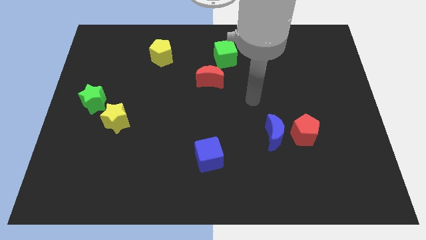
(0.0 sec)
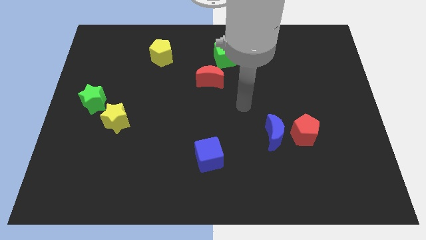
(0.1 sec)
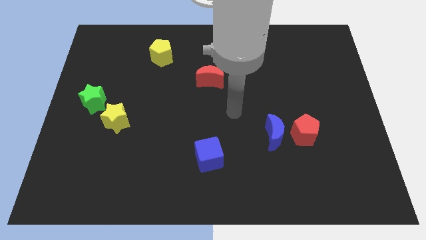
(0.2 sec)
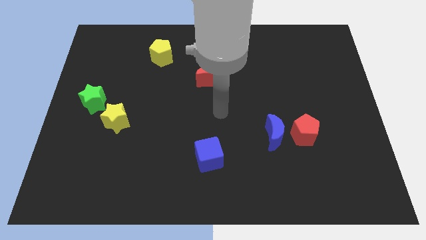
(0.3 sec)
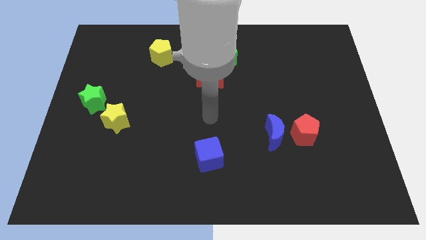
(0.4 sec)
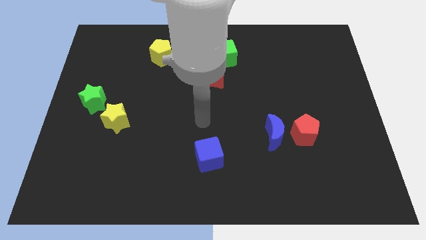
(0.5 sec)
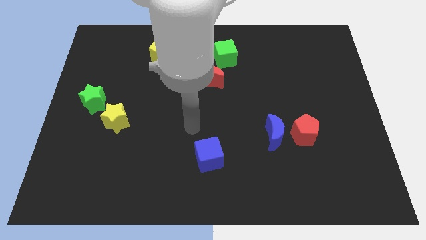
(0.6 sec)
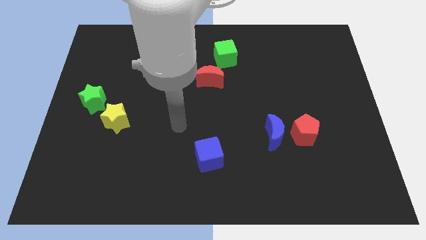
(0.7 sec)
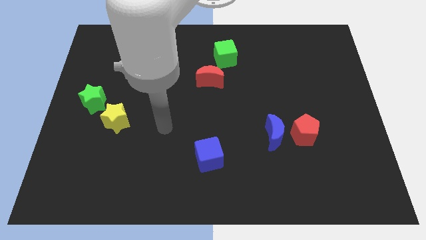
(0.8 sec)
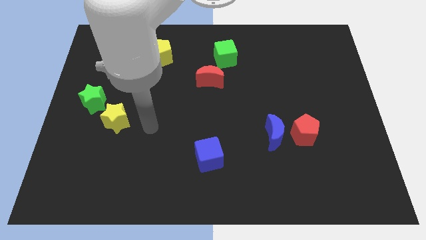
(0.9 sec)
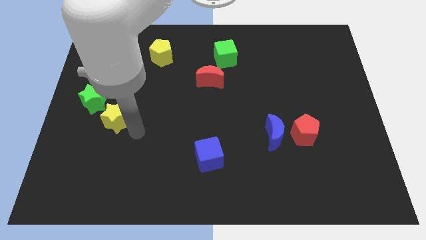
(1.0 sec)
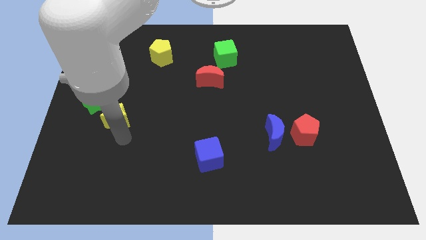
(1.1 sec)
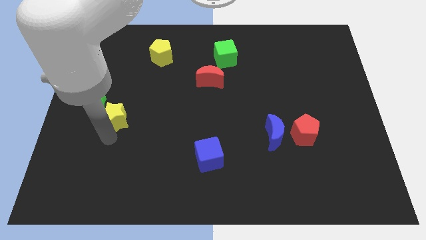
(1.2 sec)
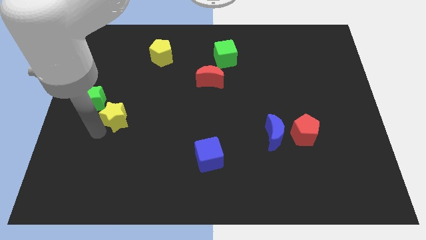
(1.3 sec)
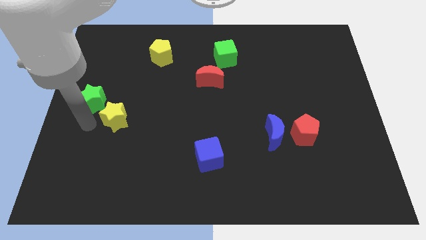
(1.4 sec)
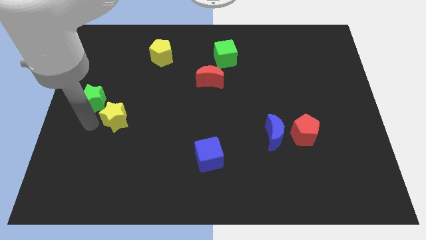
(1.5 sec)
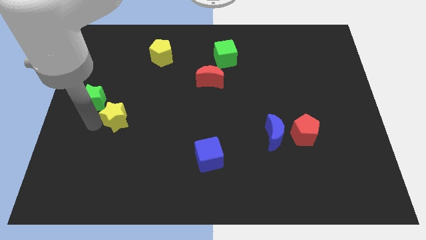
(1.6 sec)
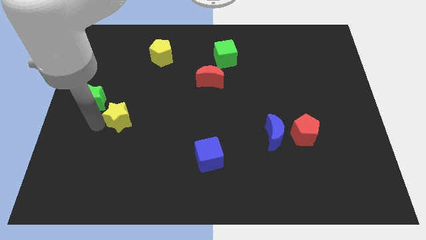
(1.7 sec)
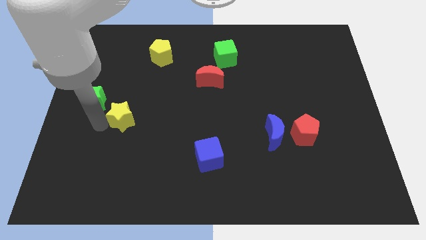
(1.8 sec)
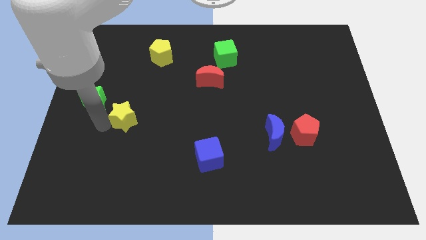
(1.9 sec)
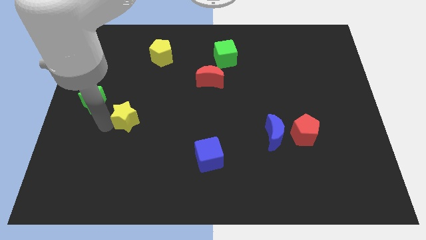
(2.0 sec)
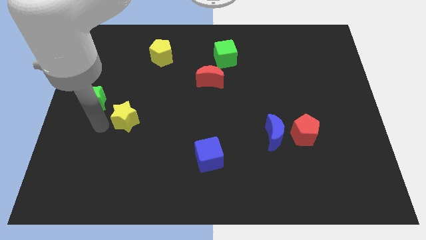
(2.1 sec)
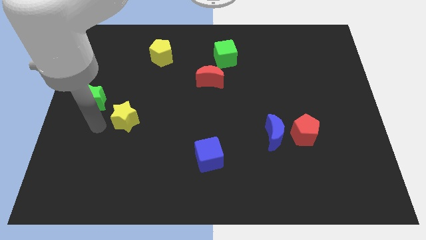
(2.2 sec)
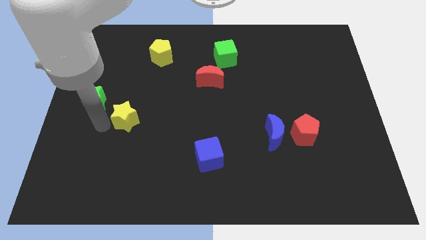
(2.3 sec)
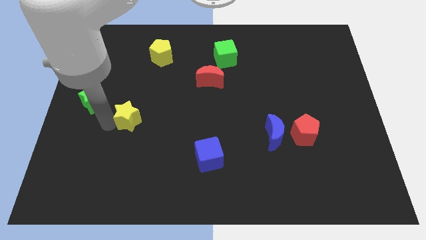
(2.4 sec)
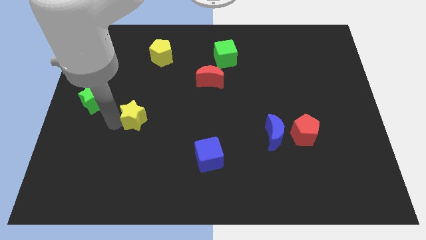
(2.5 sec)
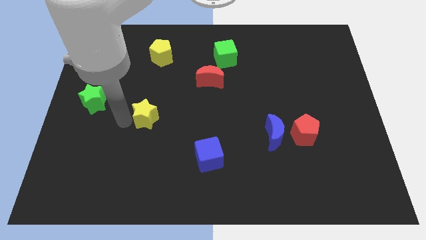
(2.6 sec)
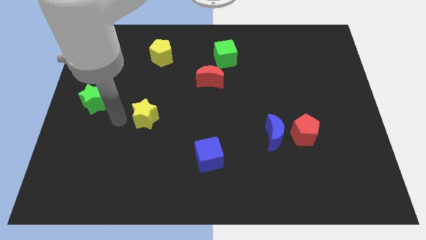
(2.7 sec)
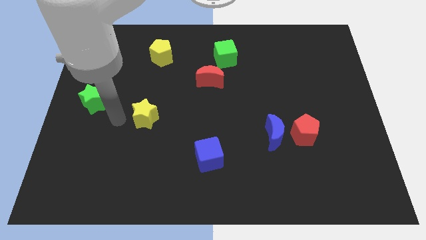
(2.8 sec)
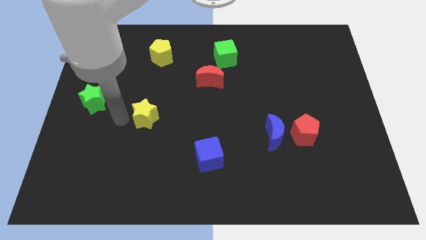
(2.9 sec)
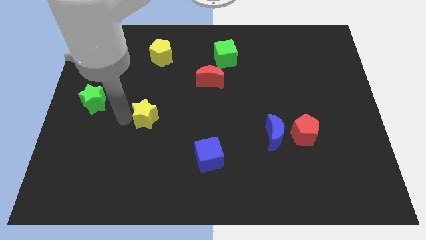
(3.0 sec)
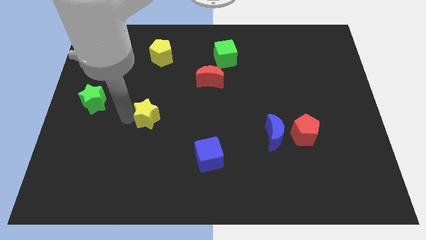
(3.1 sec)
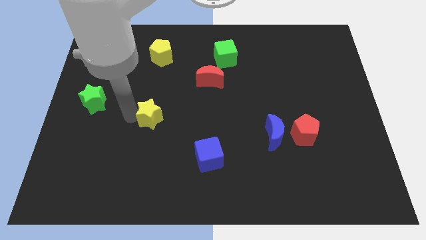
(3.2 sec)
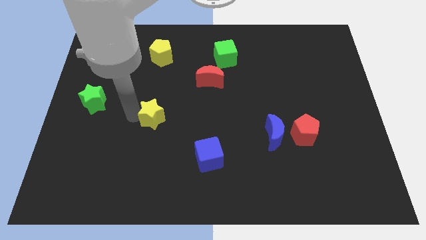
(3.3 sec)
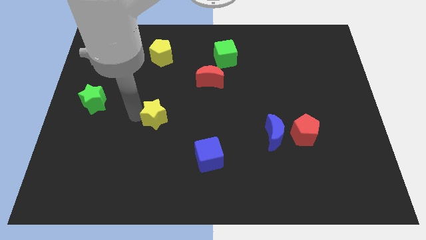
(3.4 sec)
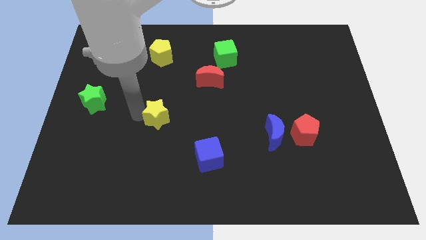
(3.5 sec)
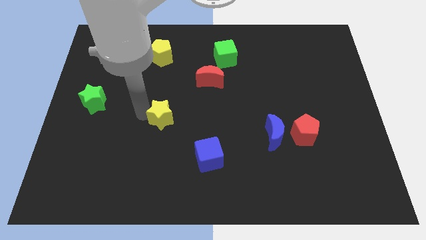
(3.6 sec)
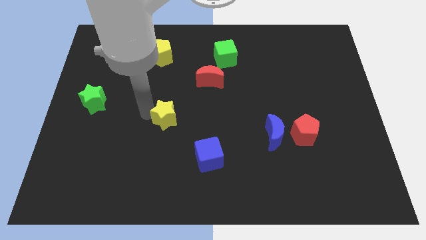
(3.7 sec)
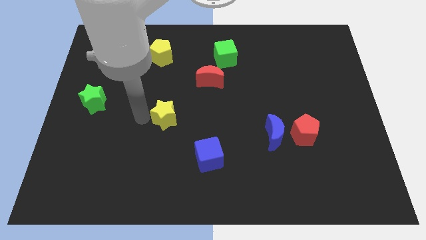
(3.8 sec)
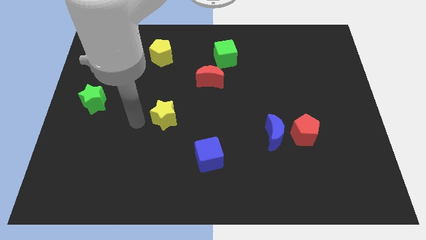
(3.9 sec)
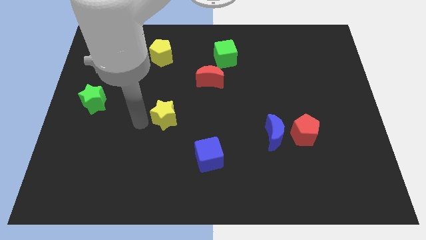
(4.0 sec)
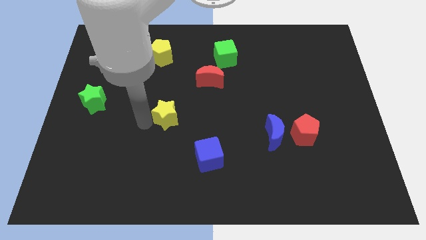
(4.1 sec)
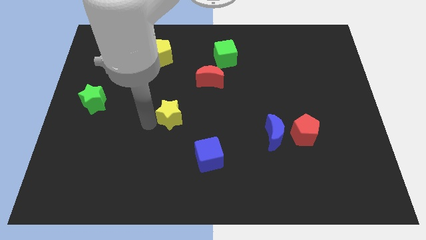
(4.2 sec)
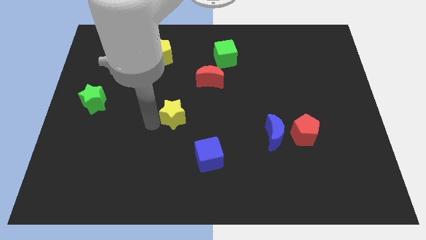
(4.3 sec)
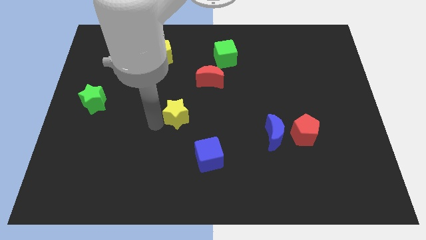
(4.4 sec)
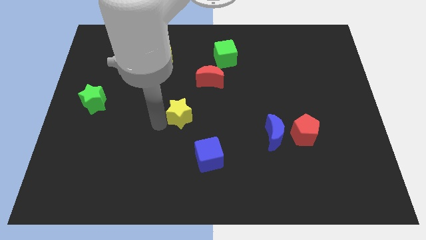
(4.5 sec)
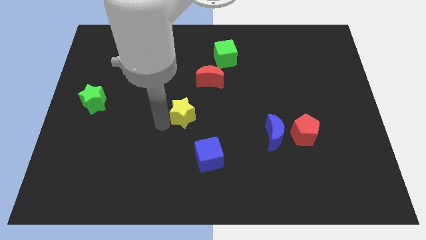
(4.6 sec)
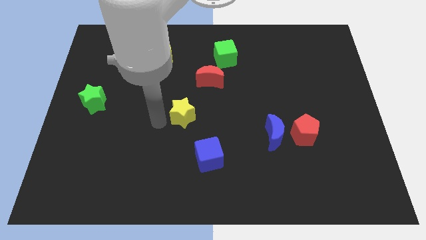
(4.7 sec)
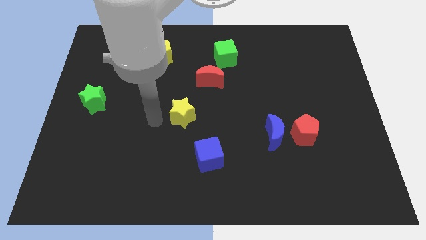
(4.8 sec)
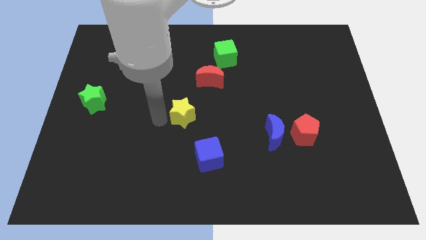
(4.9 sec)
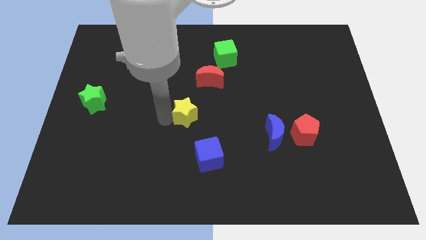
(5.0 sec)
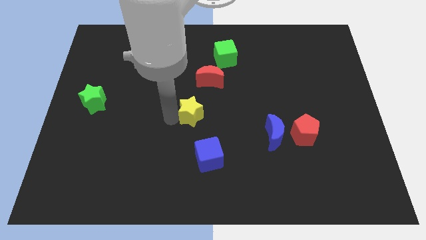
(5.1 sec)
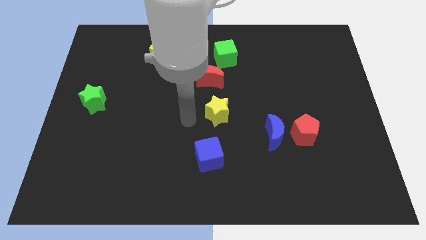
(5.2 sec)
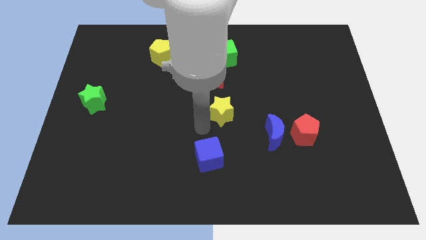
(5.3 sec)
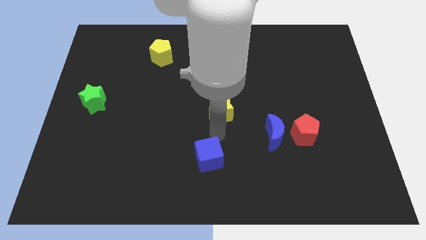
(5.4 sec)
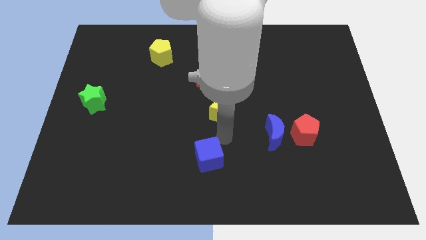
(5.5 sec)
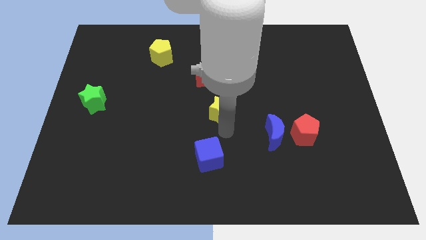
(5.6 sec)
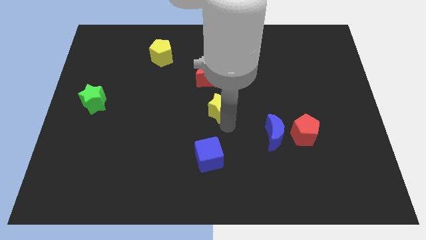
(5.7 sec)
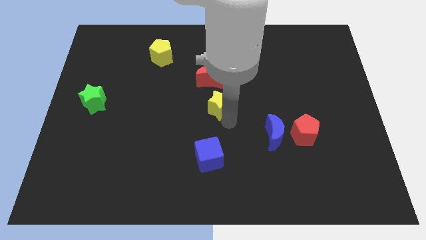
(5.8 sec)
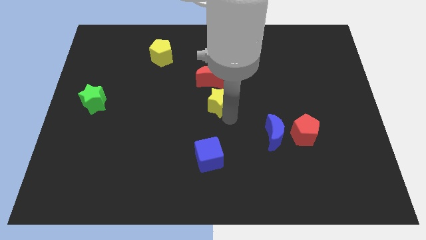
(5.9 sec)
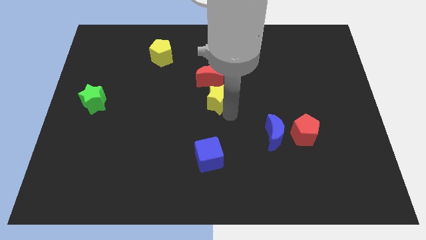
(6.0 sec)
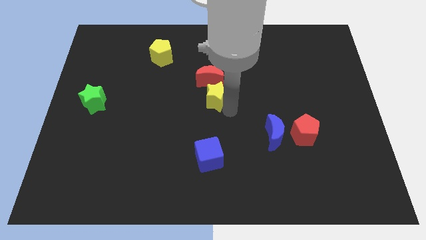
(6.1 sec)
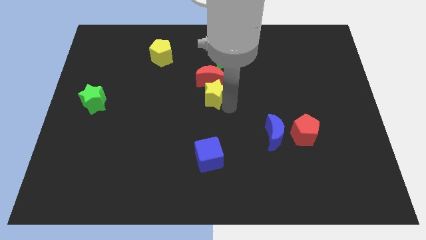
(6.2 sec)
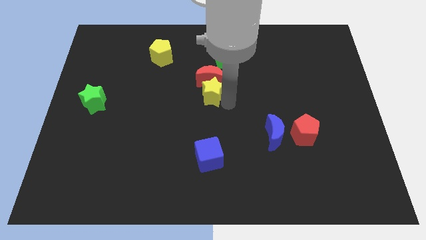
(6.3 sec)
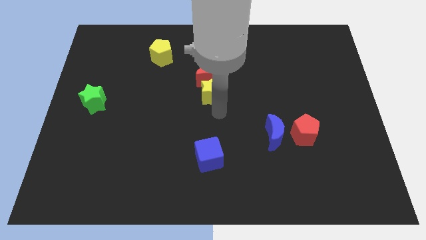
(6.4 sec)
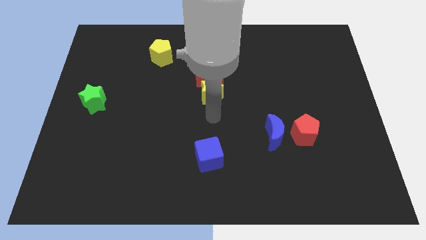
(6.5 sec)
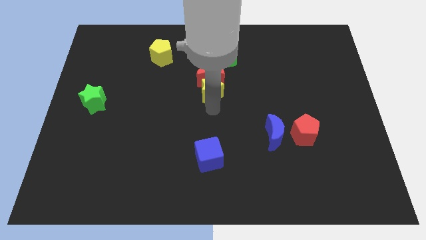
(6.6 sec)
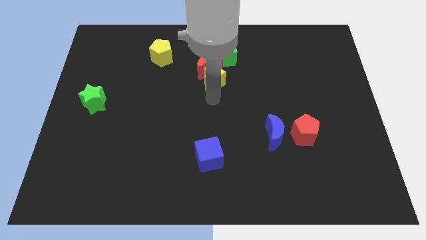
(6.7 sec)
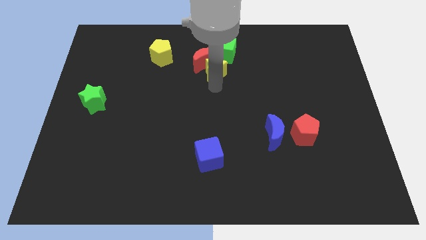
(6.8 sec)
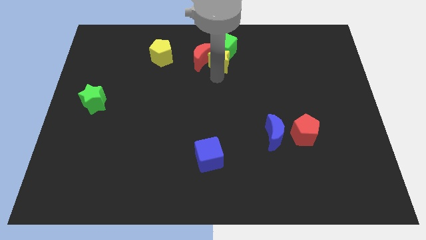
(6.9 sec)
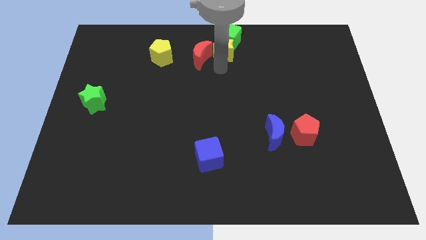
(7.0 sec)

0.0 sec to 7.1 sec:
move the yellow star to the top side

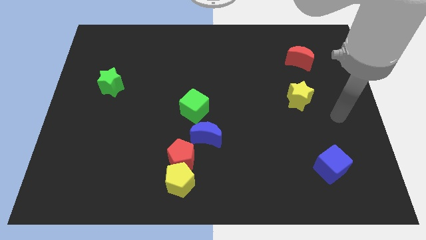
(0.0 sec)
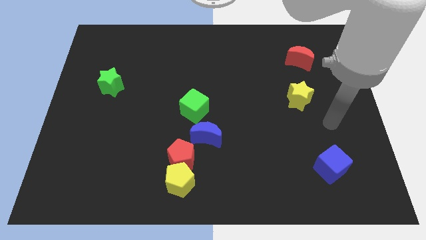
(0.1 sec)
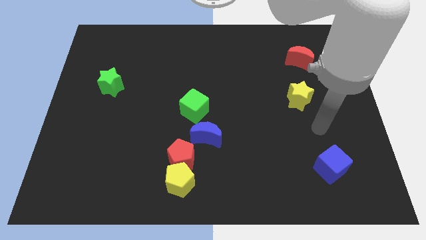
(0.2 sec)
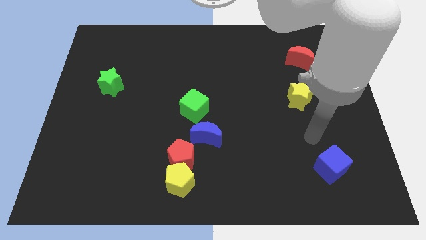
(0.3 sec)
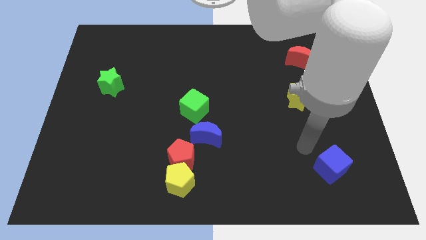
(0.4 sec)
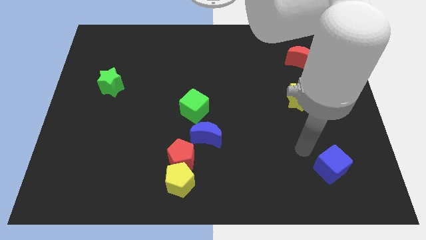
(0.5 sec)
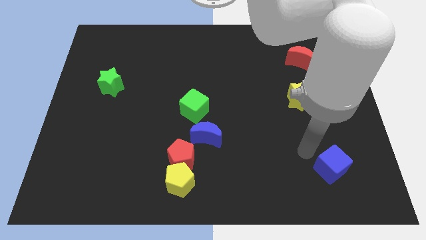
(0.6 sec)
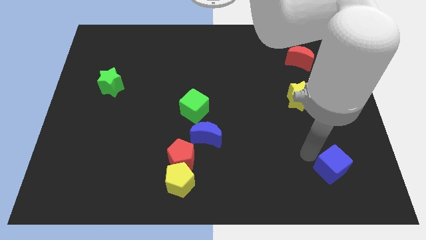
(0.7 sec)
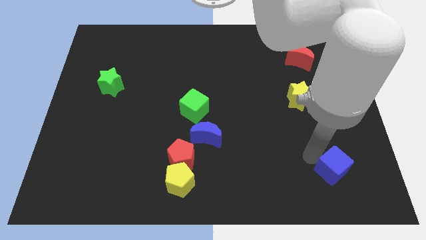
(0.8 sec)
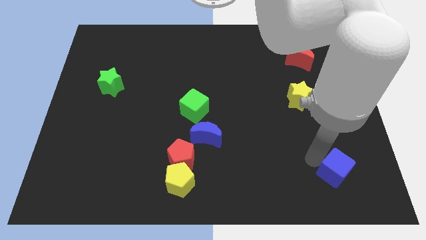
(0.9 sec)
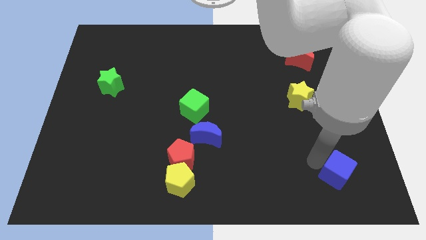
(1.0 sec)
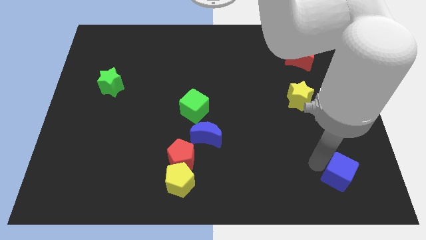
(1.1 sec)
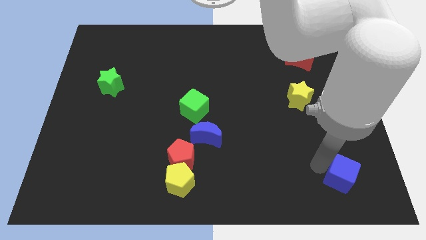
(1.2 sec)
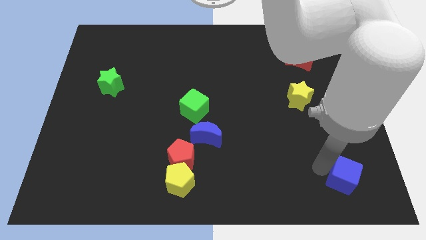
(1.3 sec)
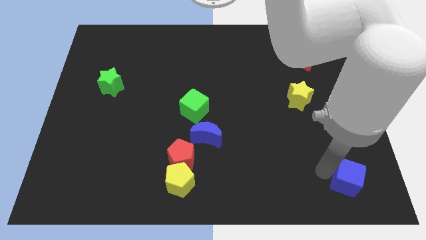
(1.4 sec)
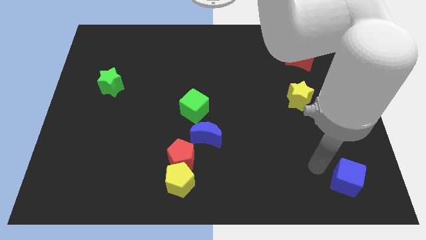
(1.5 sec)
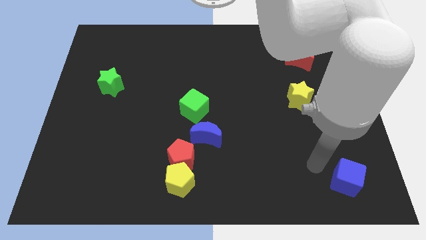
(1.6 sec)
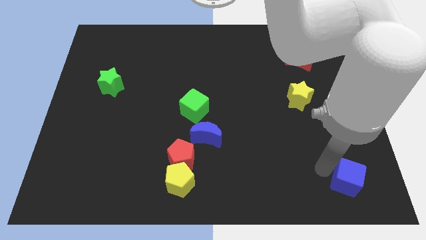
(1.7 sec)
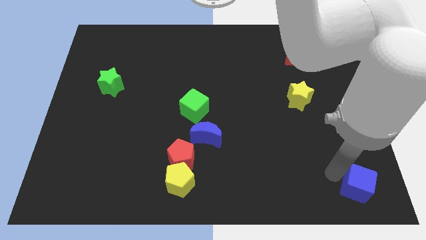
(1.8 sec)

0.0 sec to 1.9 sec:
put the blue cube to the bottom right of the board
